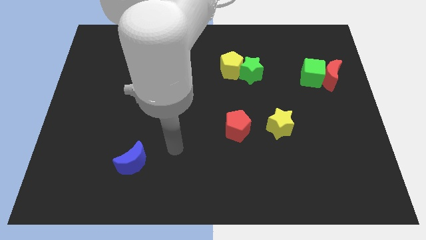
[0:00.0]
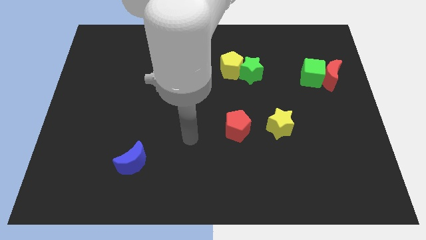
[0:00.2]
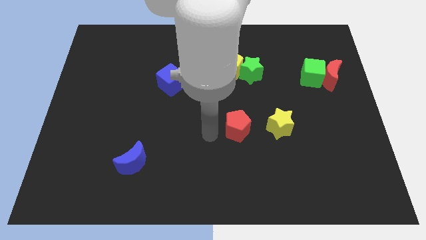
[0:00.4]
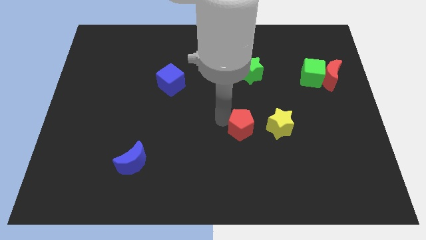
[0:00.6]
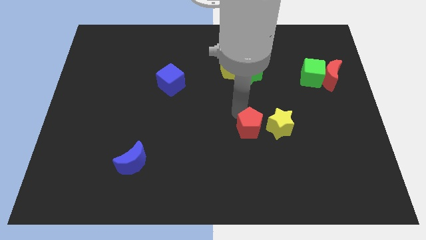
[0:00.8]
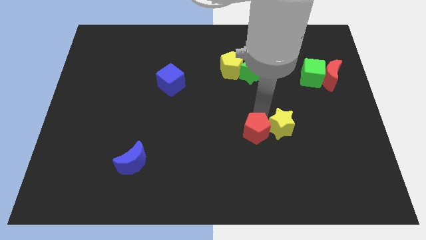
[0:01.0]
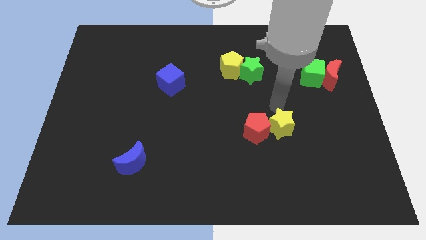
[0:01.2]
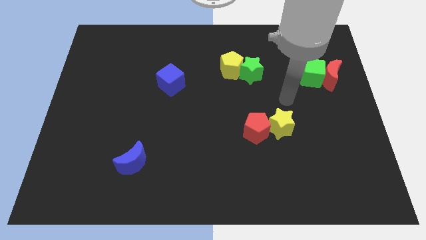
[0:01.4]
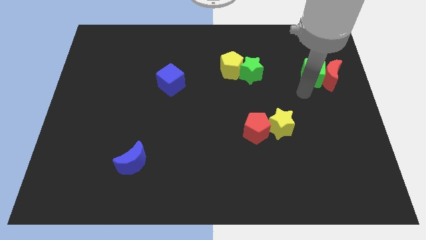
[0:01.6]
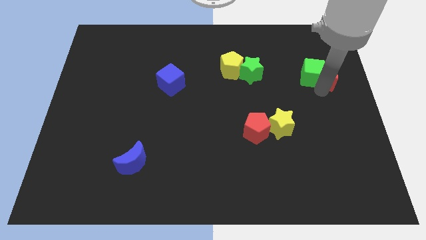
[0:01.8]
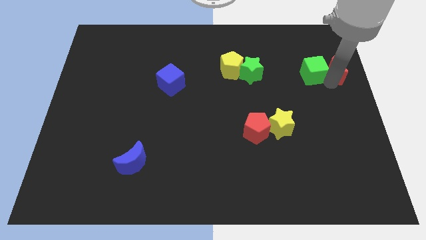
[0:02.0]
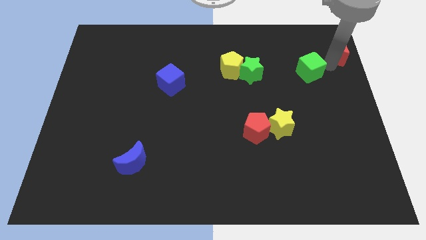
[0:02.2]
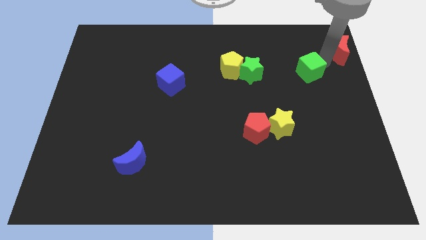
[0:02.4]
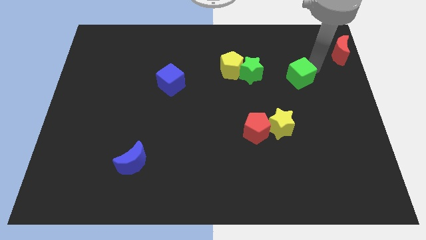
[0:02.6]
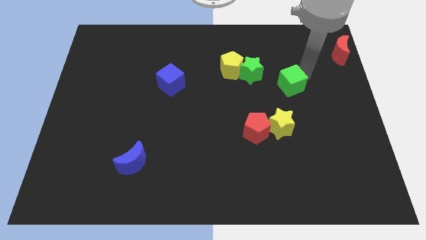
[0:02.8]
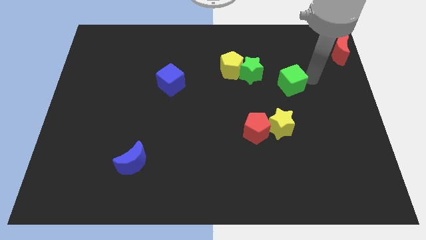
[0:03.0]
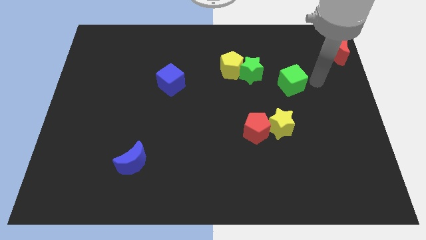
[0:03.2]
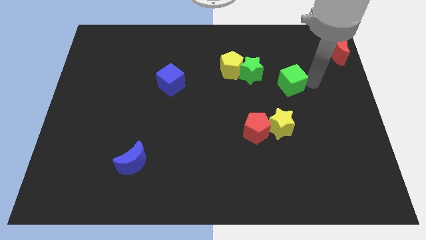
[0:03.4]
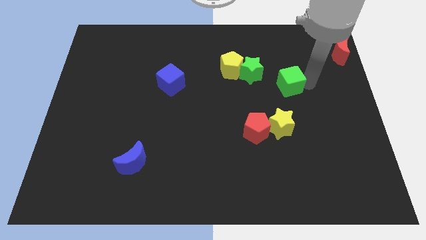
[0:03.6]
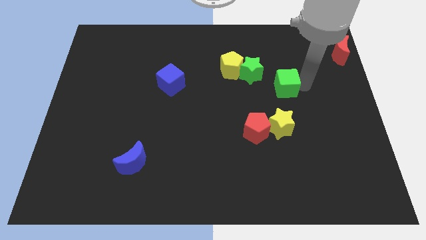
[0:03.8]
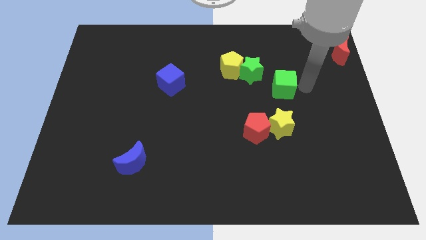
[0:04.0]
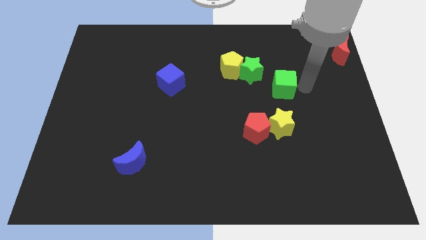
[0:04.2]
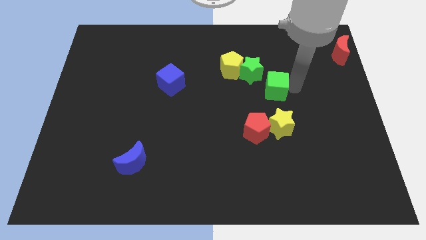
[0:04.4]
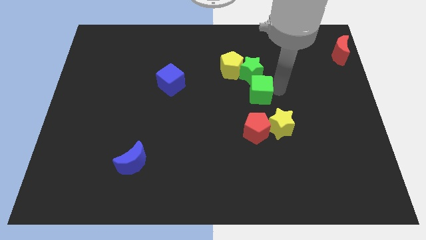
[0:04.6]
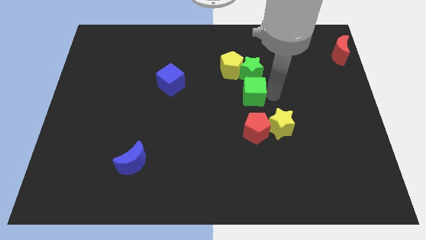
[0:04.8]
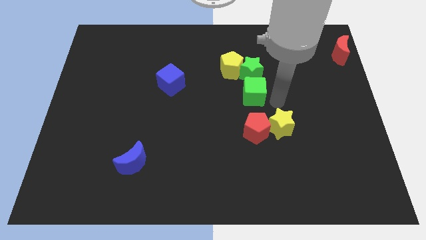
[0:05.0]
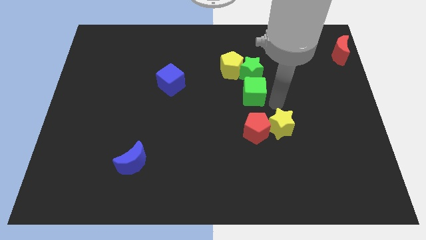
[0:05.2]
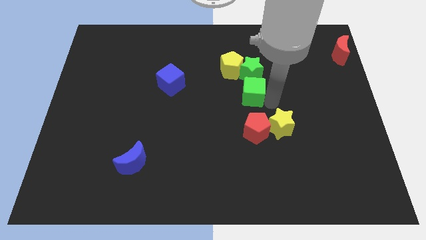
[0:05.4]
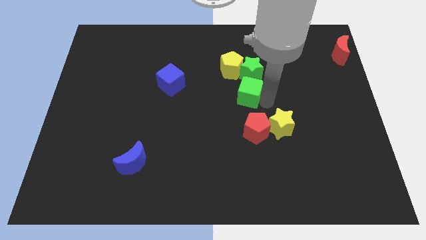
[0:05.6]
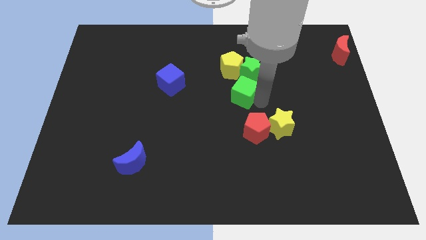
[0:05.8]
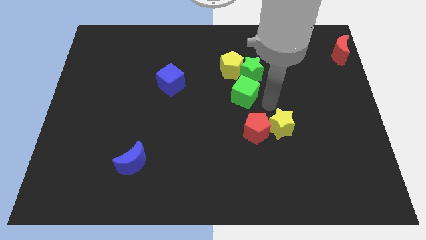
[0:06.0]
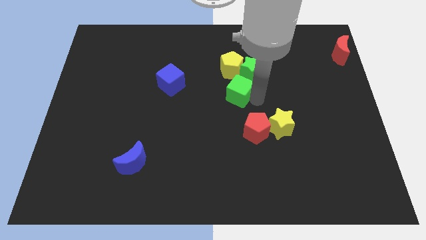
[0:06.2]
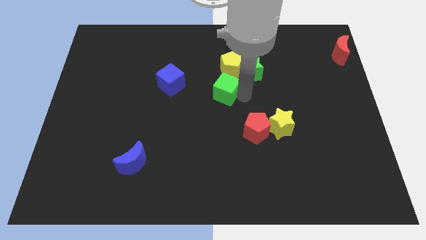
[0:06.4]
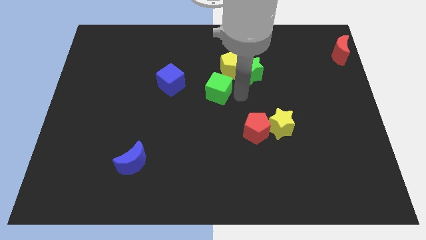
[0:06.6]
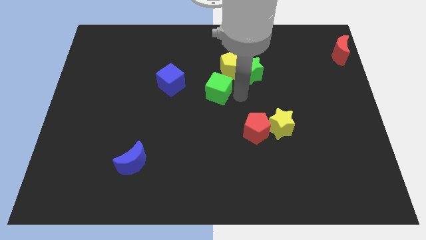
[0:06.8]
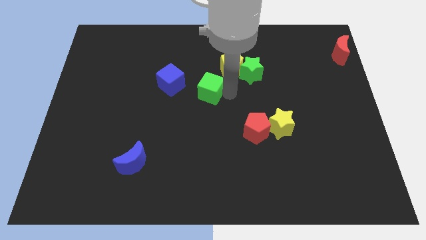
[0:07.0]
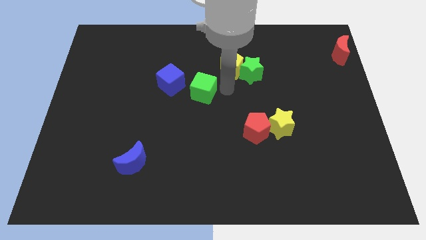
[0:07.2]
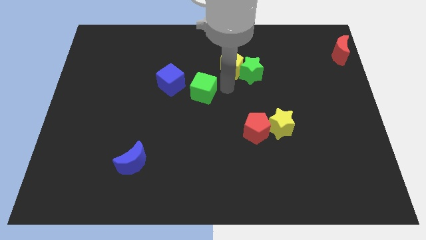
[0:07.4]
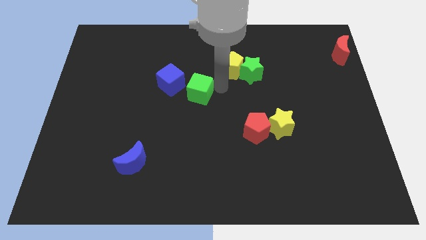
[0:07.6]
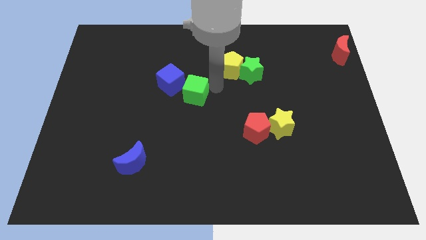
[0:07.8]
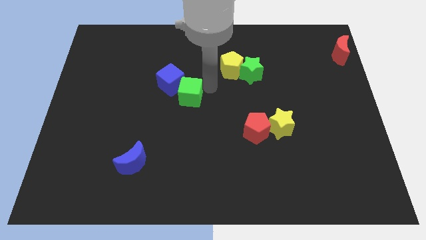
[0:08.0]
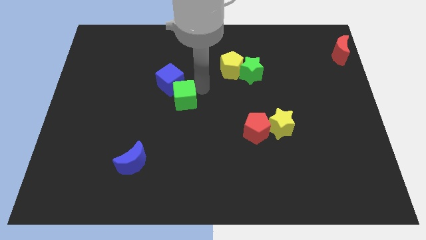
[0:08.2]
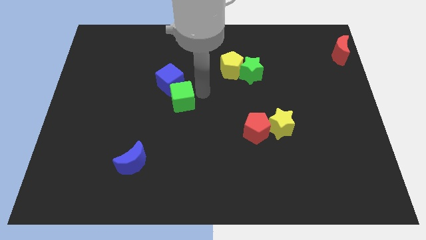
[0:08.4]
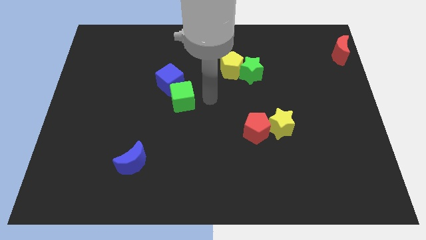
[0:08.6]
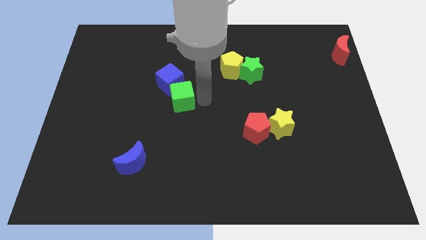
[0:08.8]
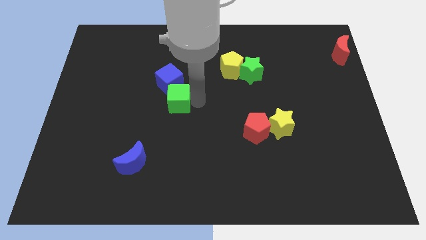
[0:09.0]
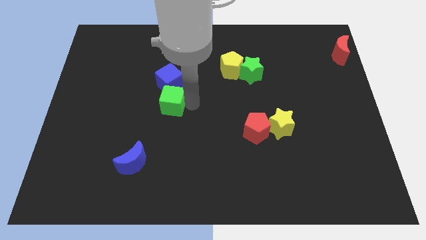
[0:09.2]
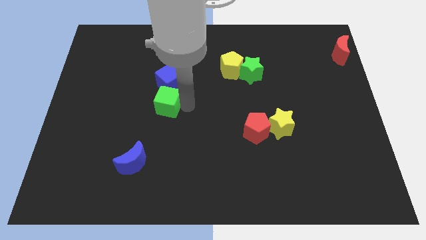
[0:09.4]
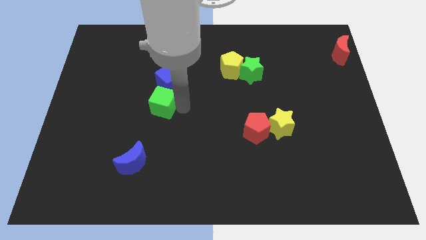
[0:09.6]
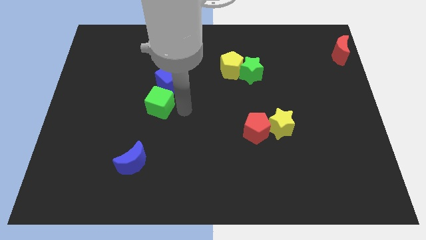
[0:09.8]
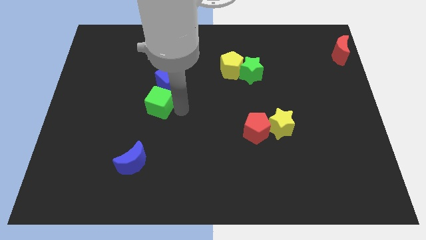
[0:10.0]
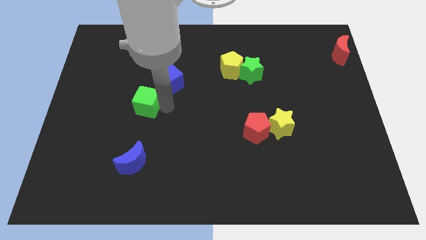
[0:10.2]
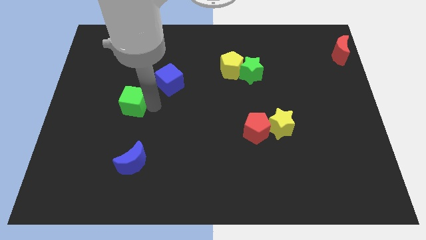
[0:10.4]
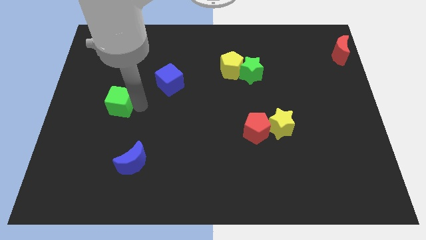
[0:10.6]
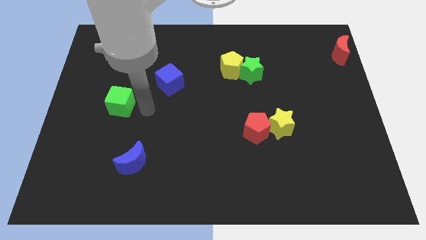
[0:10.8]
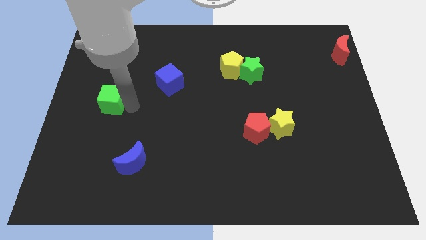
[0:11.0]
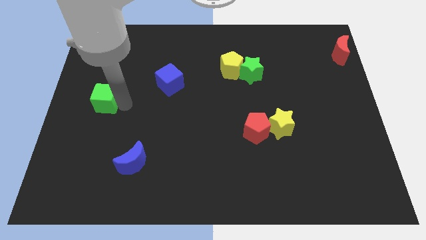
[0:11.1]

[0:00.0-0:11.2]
put the green cube to the center left
